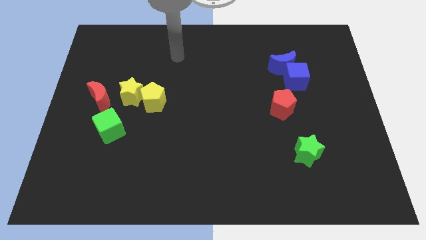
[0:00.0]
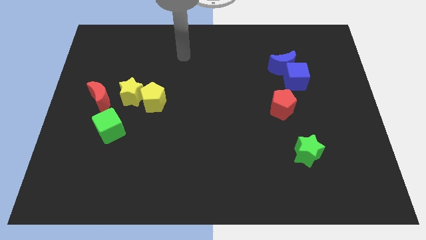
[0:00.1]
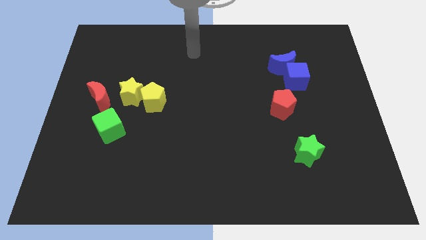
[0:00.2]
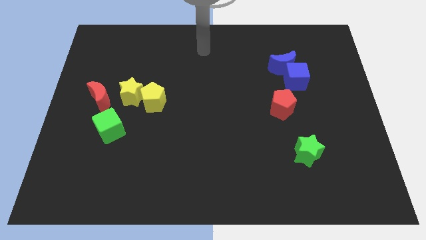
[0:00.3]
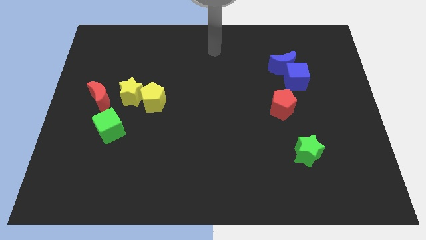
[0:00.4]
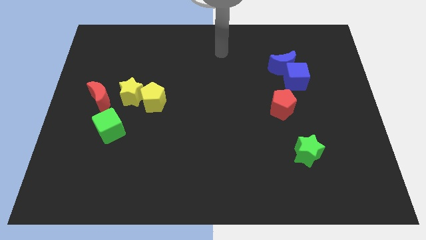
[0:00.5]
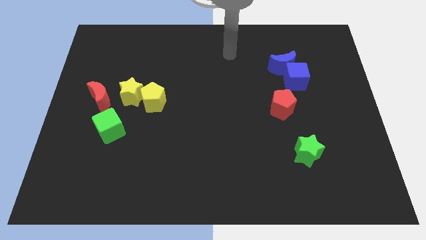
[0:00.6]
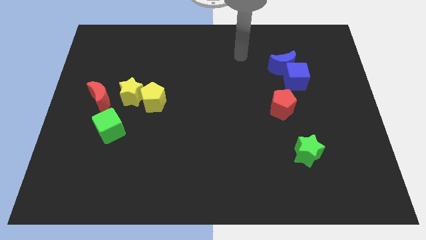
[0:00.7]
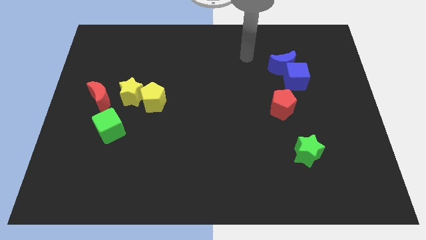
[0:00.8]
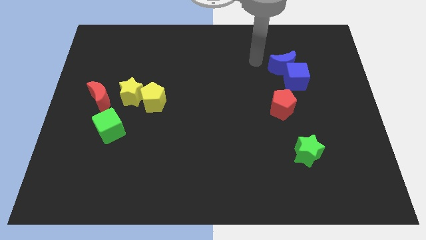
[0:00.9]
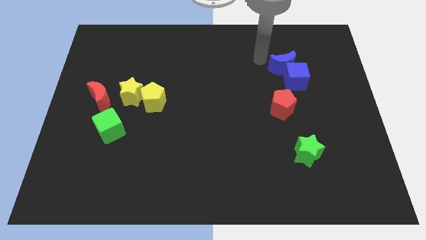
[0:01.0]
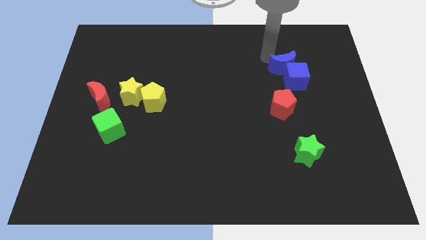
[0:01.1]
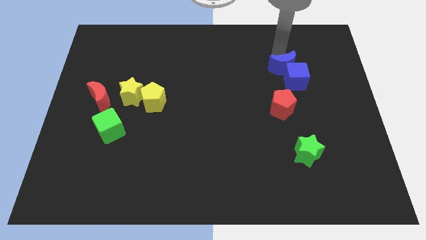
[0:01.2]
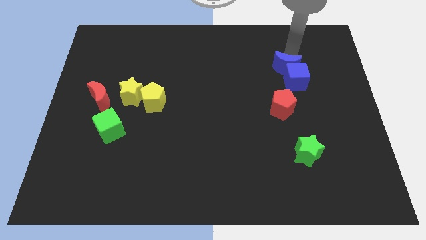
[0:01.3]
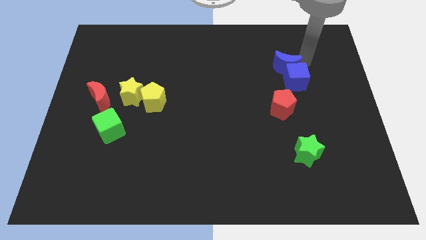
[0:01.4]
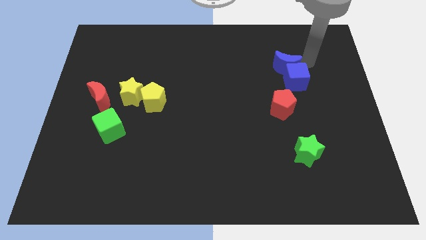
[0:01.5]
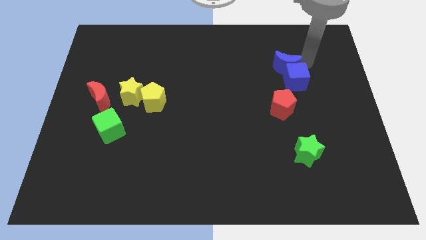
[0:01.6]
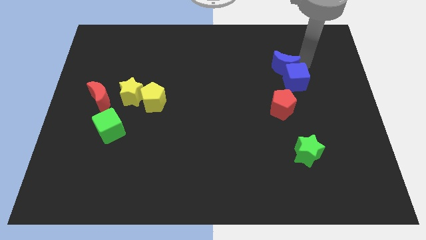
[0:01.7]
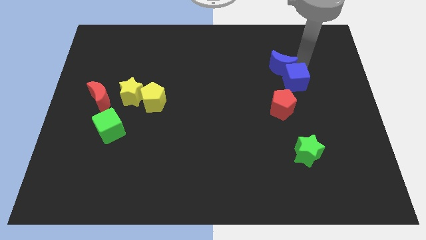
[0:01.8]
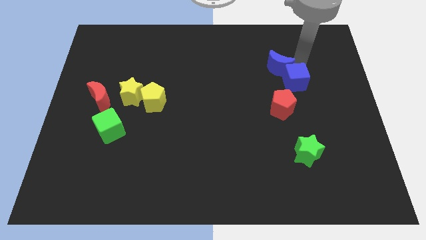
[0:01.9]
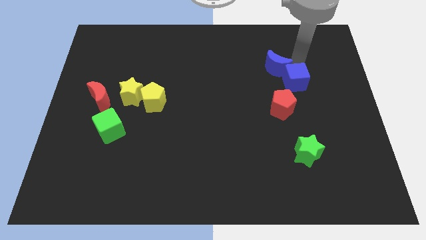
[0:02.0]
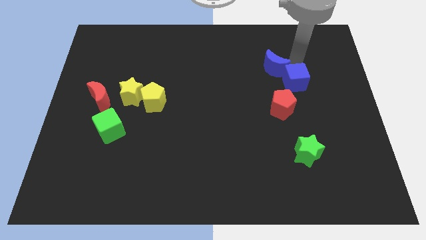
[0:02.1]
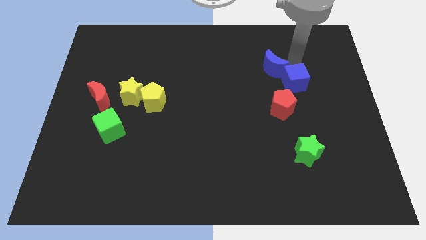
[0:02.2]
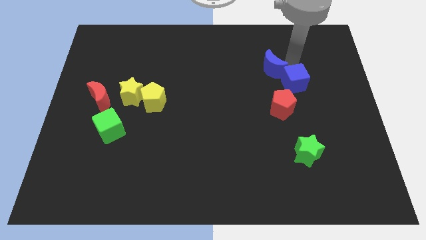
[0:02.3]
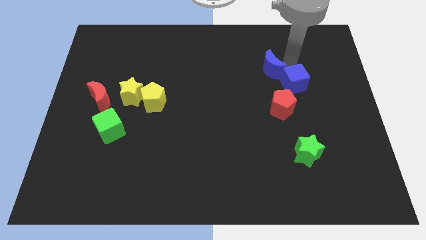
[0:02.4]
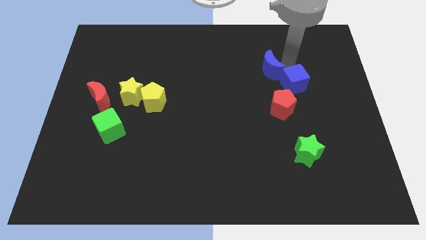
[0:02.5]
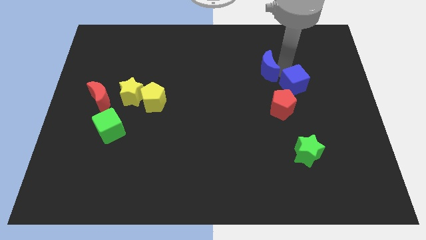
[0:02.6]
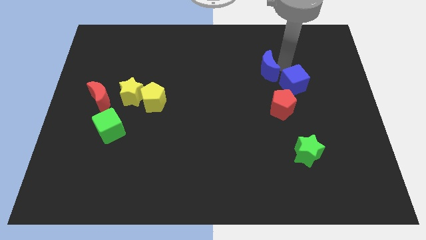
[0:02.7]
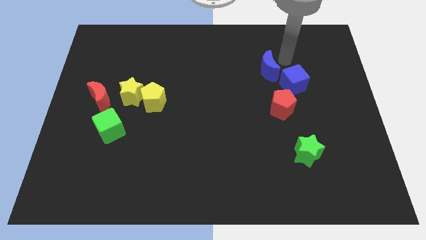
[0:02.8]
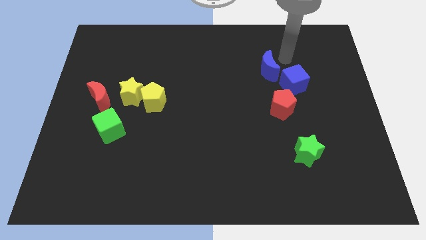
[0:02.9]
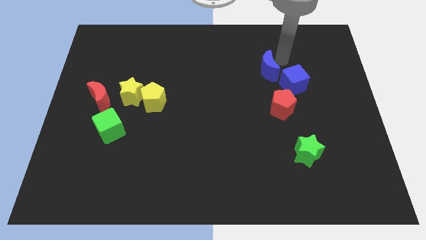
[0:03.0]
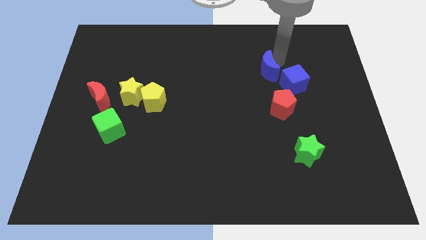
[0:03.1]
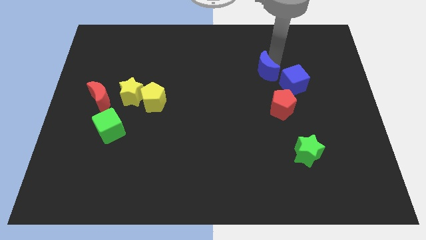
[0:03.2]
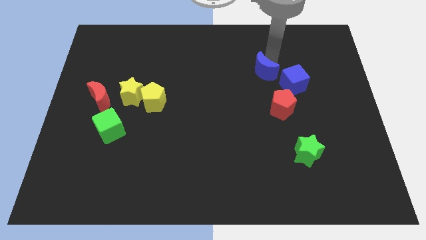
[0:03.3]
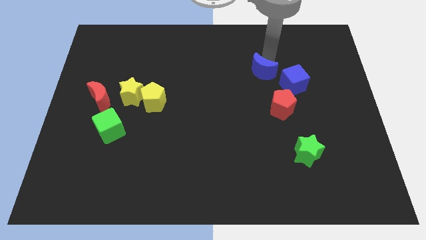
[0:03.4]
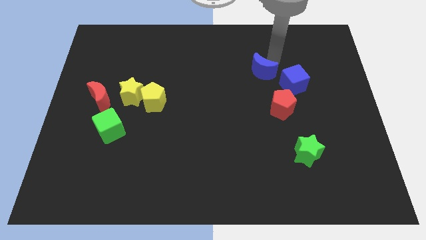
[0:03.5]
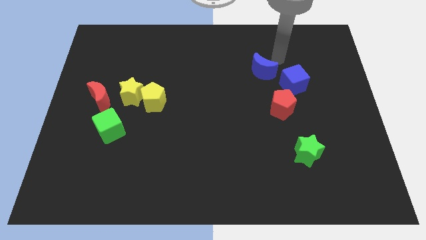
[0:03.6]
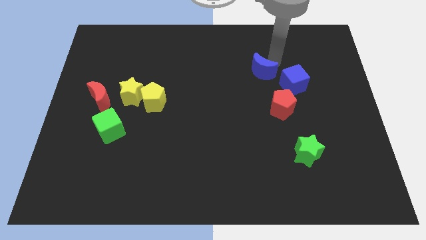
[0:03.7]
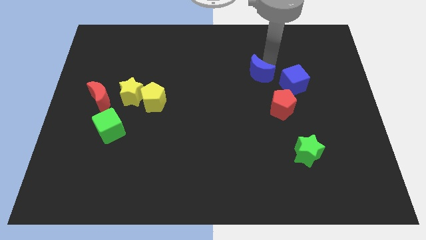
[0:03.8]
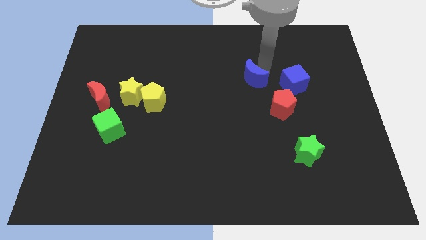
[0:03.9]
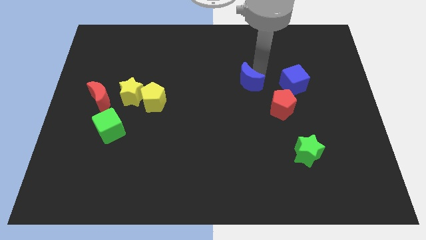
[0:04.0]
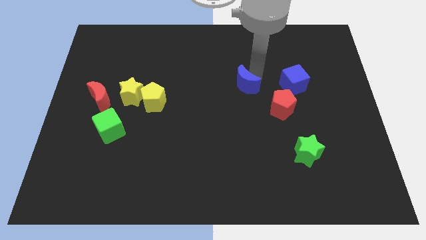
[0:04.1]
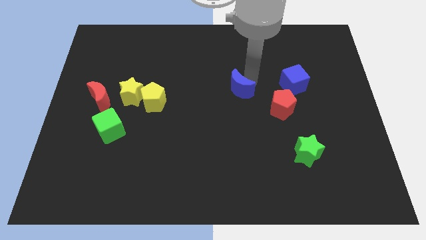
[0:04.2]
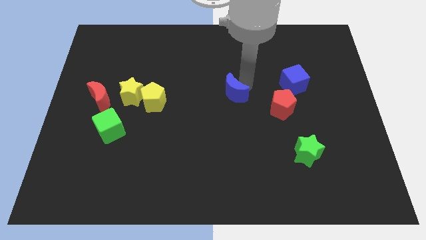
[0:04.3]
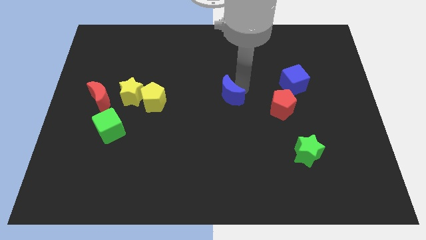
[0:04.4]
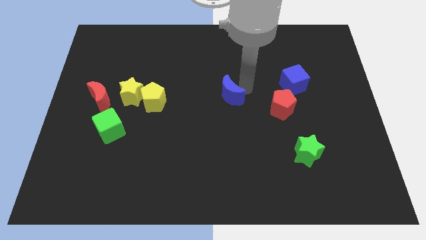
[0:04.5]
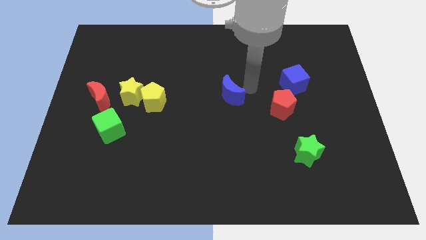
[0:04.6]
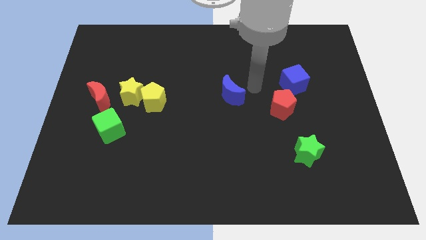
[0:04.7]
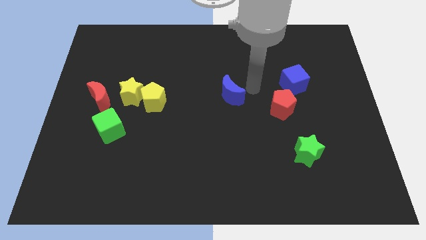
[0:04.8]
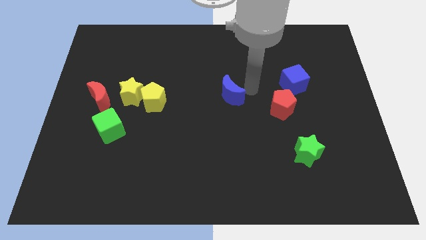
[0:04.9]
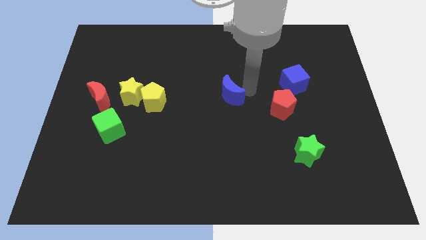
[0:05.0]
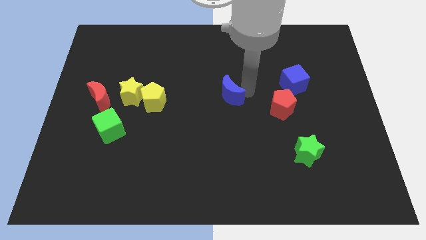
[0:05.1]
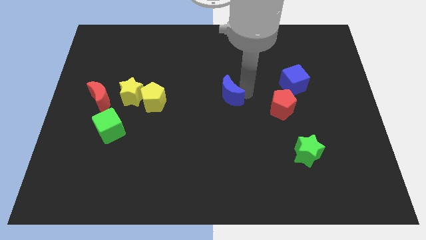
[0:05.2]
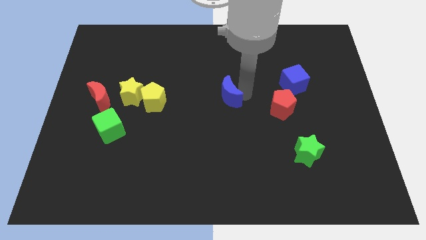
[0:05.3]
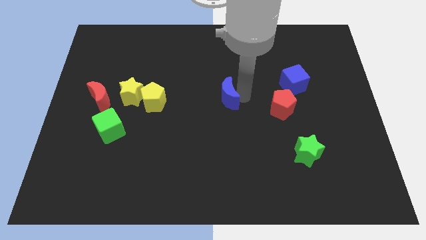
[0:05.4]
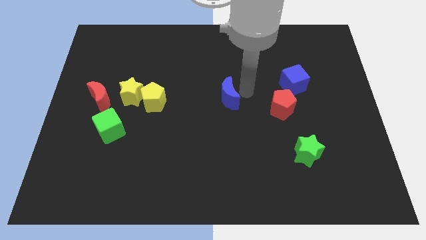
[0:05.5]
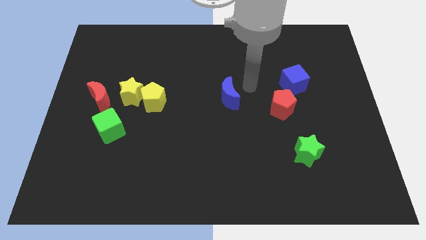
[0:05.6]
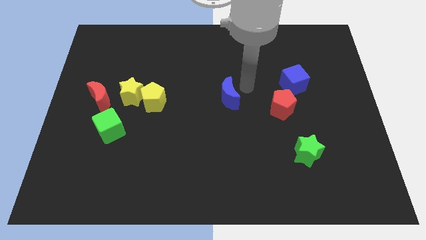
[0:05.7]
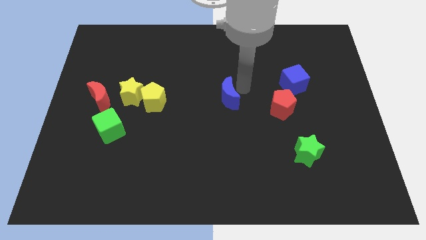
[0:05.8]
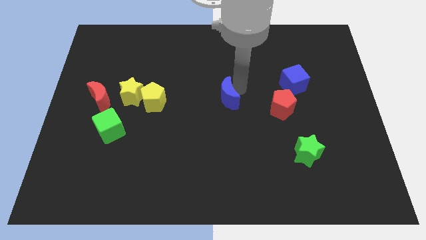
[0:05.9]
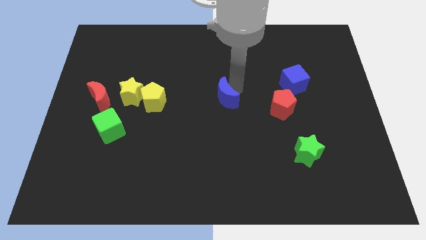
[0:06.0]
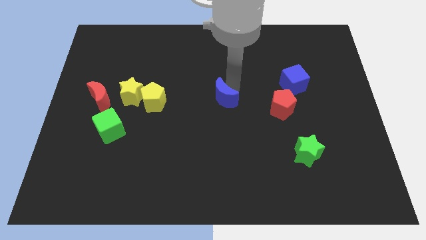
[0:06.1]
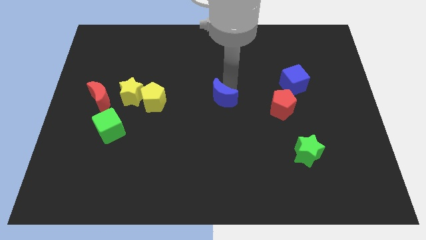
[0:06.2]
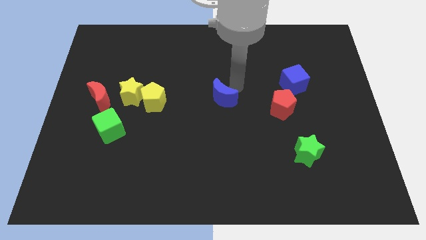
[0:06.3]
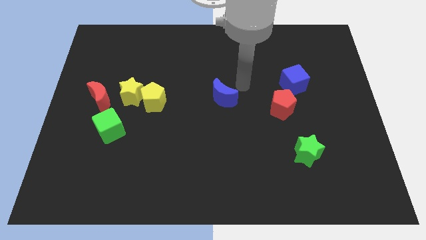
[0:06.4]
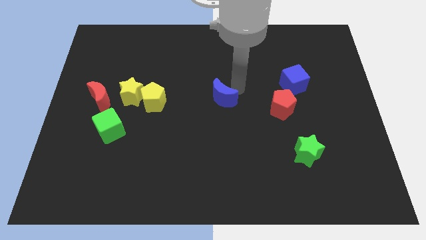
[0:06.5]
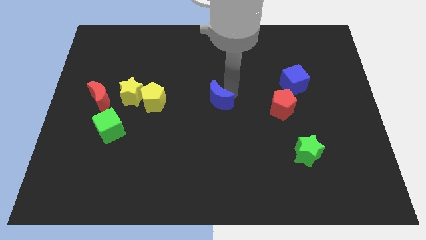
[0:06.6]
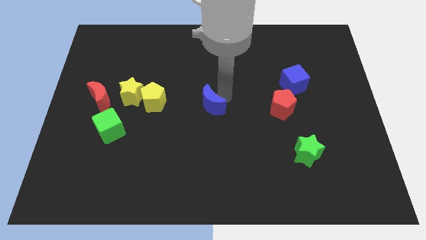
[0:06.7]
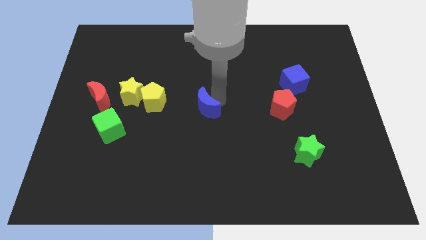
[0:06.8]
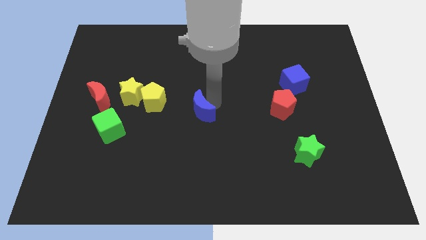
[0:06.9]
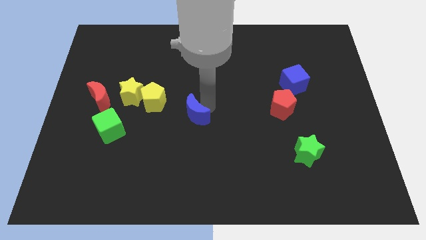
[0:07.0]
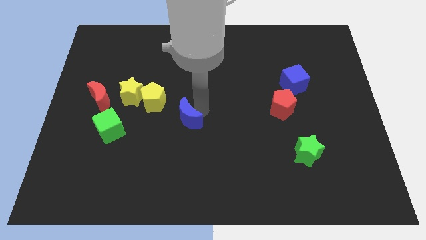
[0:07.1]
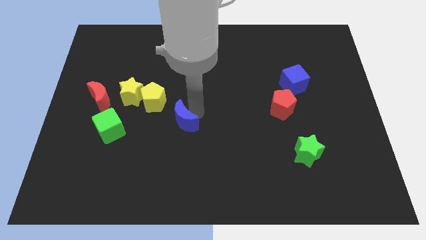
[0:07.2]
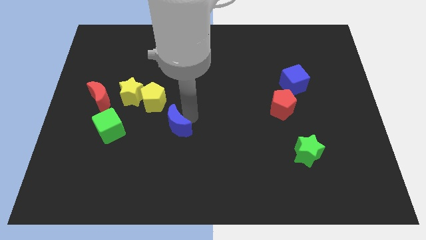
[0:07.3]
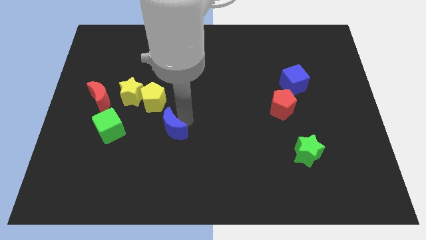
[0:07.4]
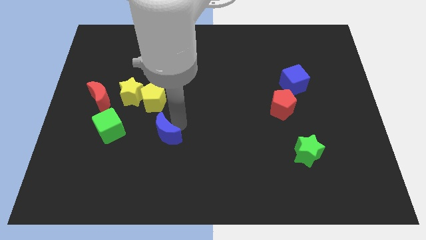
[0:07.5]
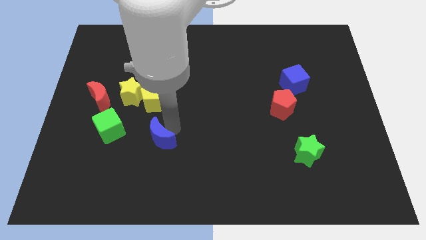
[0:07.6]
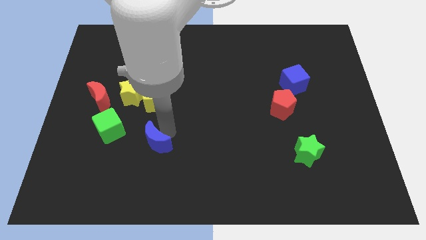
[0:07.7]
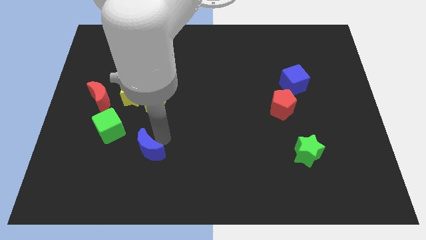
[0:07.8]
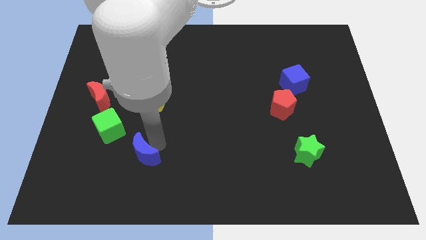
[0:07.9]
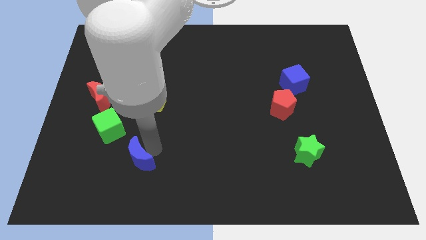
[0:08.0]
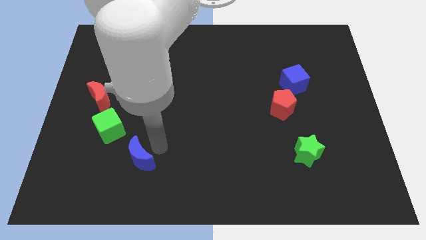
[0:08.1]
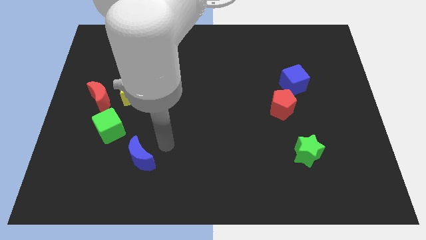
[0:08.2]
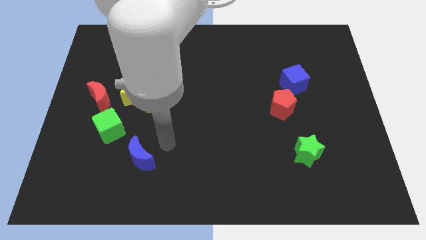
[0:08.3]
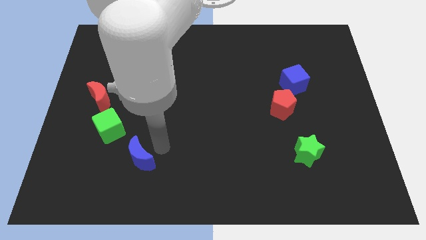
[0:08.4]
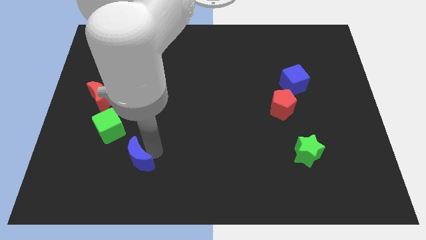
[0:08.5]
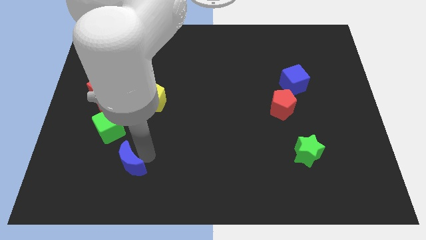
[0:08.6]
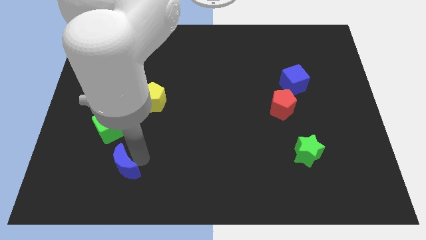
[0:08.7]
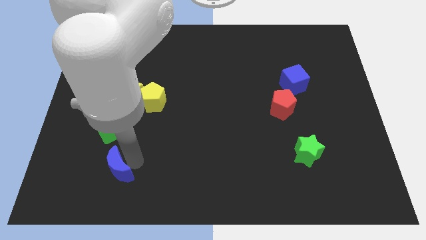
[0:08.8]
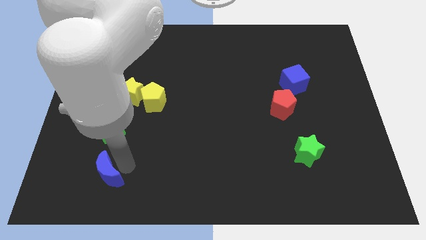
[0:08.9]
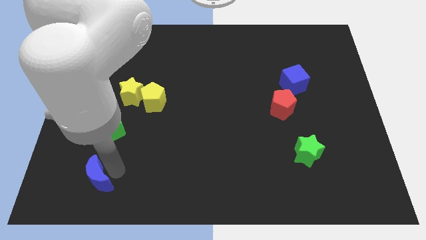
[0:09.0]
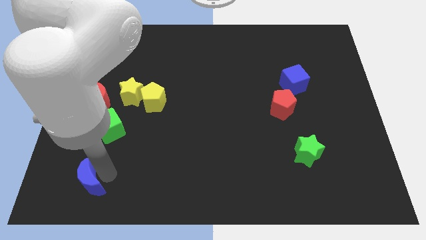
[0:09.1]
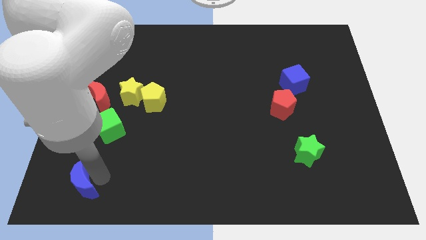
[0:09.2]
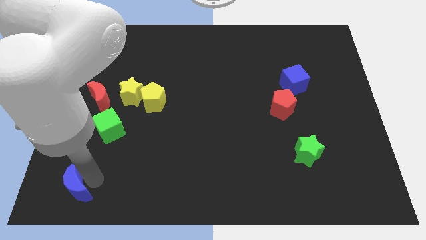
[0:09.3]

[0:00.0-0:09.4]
move the blue moon to the bottom left corner
